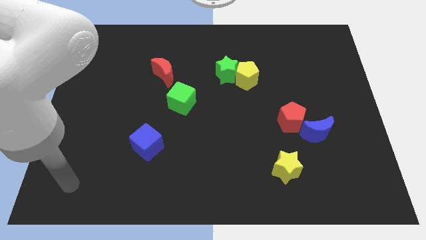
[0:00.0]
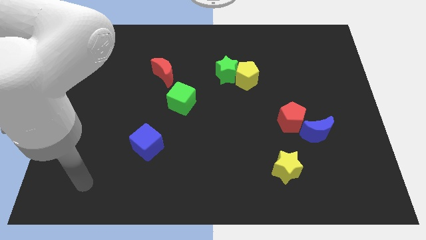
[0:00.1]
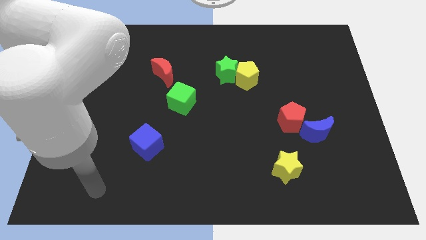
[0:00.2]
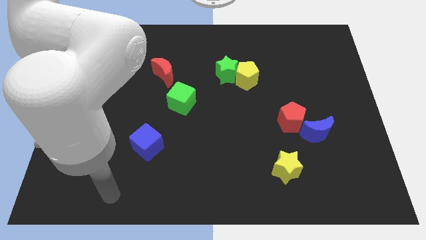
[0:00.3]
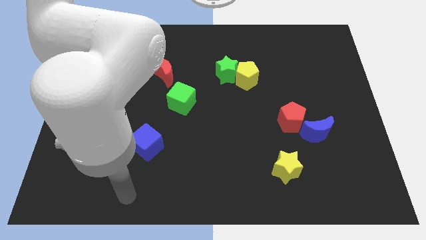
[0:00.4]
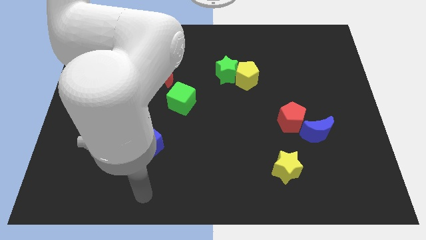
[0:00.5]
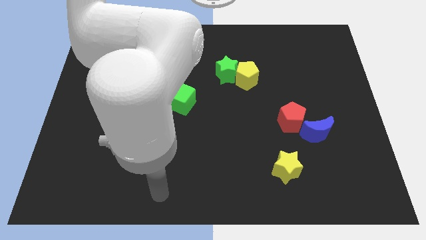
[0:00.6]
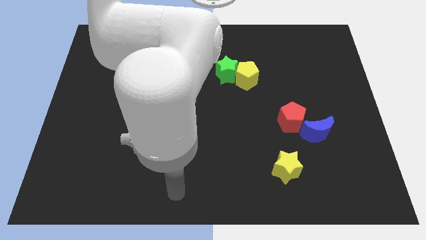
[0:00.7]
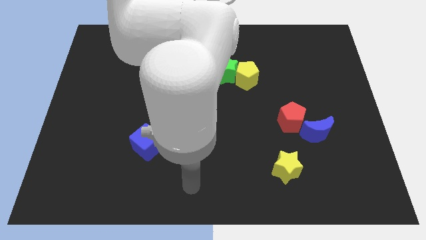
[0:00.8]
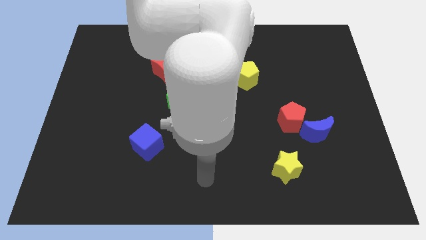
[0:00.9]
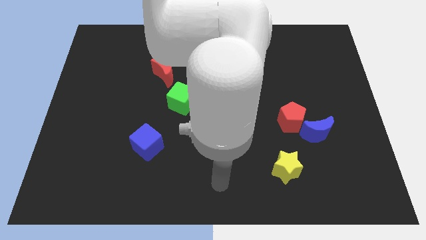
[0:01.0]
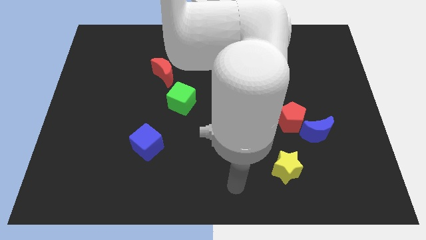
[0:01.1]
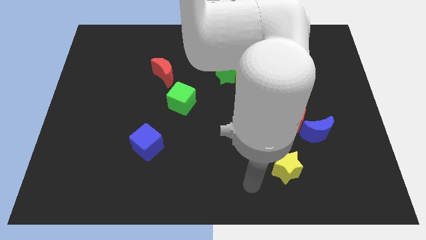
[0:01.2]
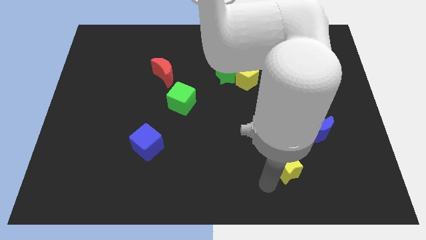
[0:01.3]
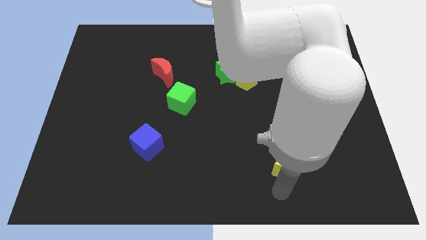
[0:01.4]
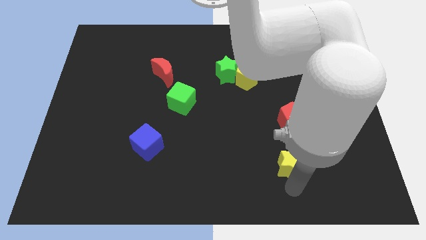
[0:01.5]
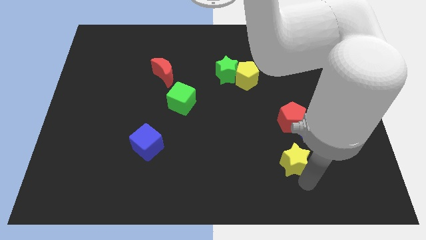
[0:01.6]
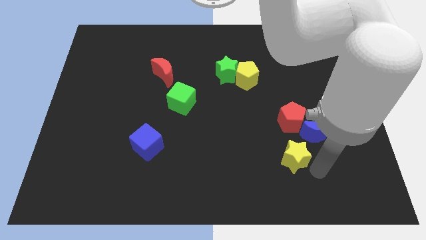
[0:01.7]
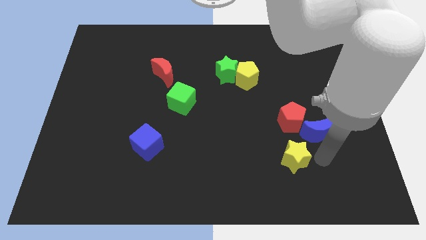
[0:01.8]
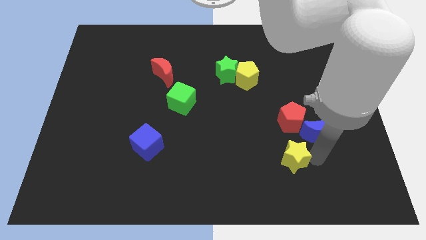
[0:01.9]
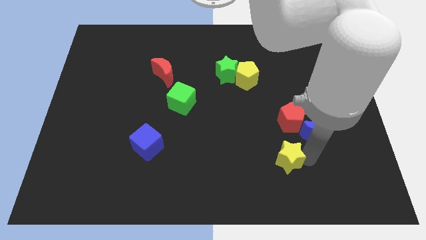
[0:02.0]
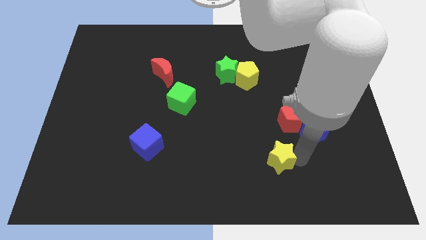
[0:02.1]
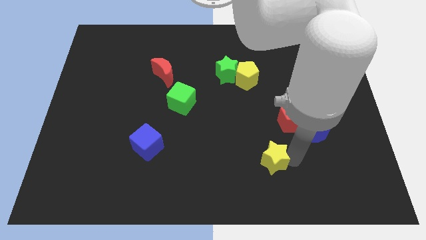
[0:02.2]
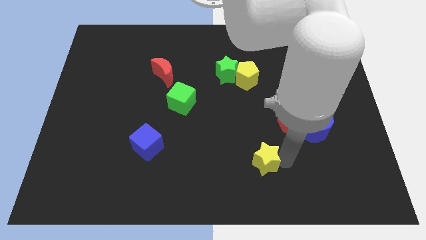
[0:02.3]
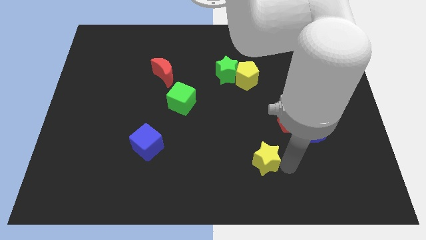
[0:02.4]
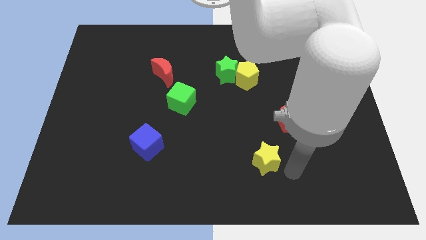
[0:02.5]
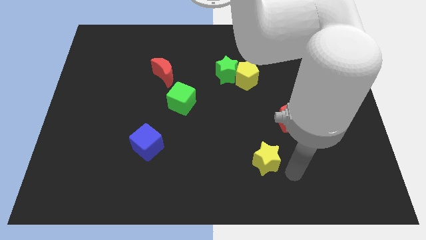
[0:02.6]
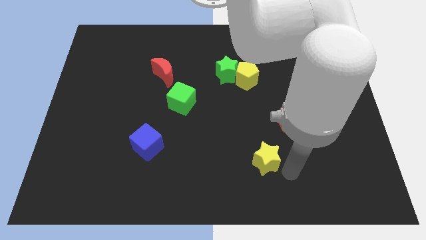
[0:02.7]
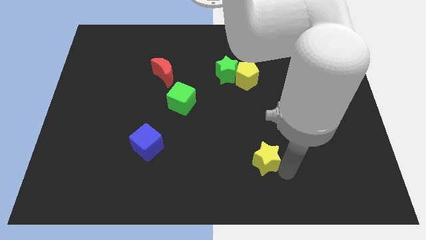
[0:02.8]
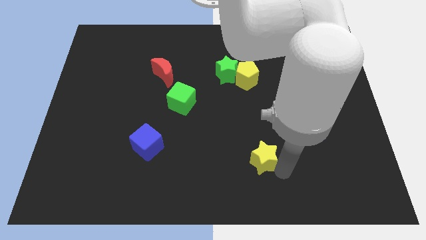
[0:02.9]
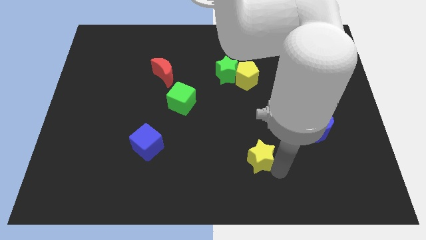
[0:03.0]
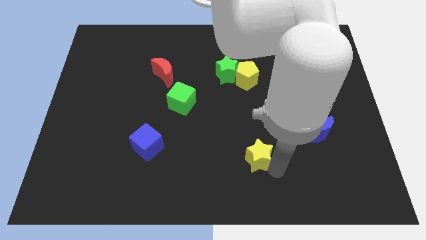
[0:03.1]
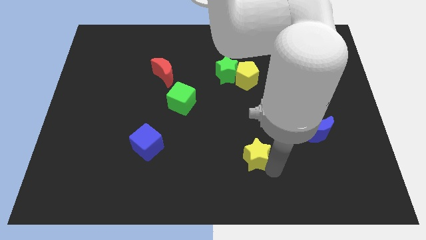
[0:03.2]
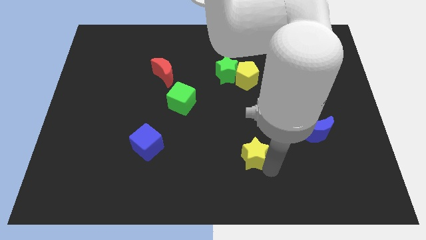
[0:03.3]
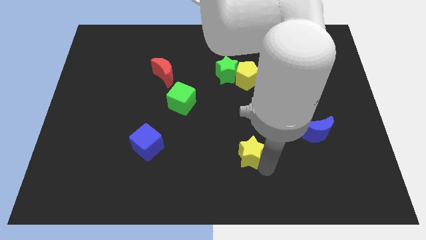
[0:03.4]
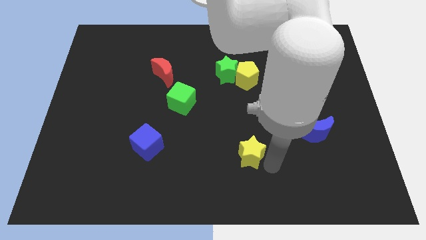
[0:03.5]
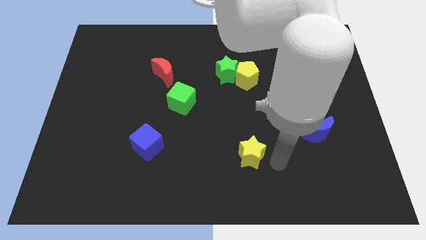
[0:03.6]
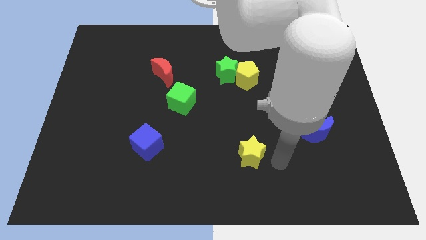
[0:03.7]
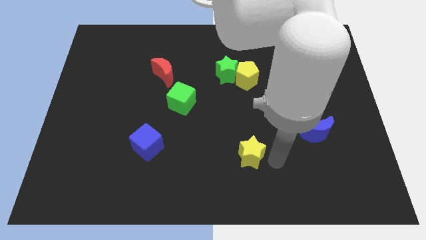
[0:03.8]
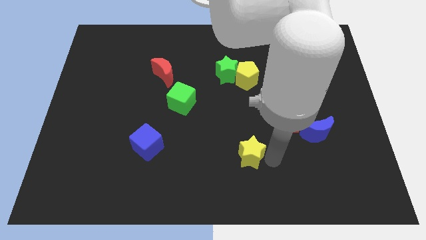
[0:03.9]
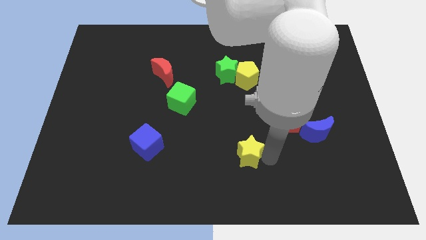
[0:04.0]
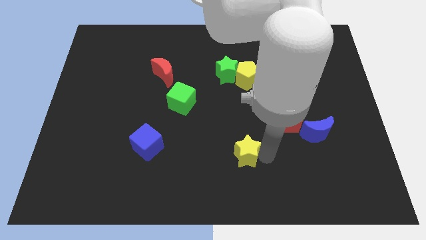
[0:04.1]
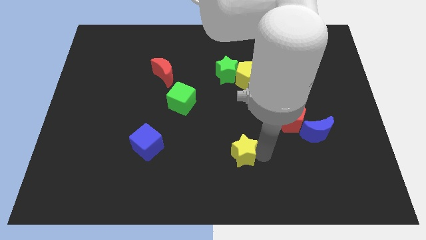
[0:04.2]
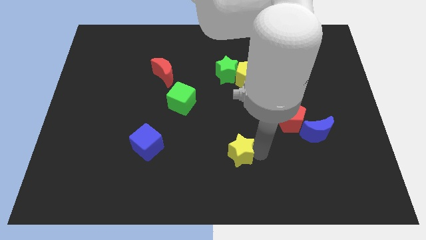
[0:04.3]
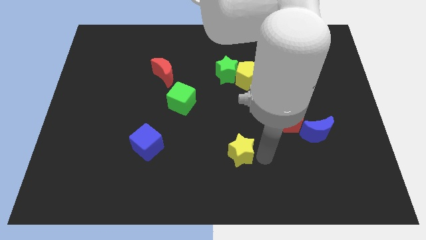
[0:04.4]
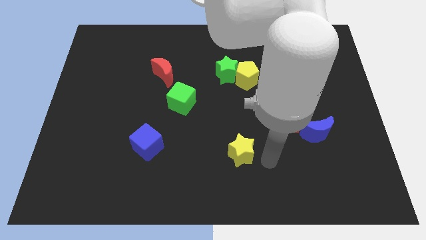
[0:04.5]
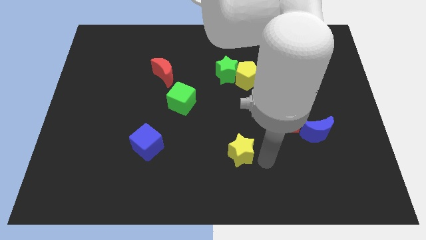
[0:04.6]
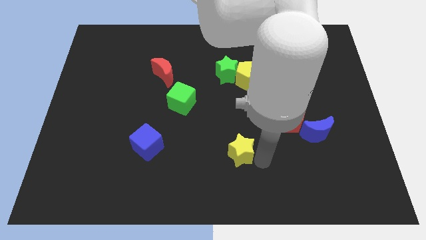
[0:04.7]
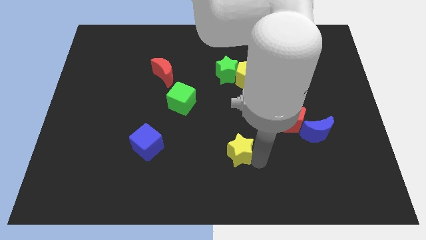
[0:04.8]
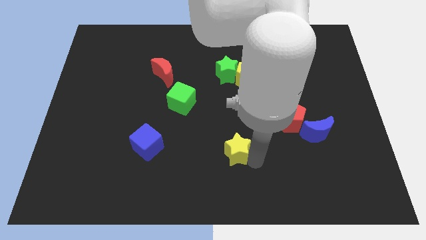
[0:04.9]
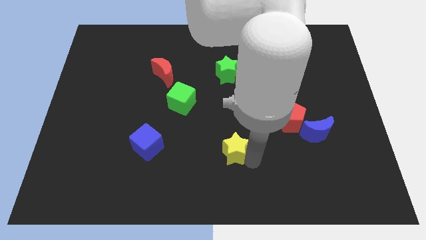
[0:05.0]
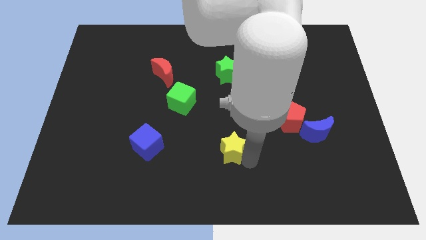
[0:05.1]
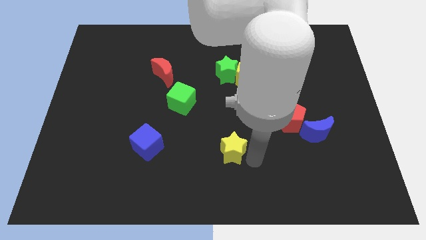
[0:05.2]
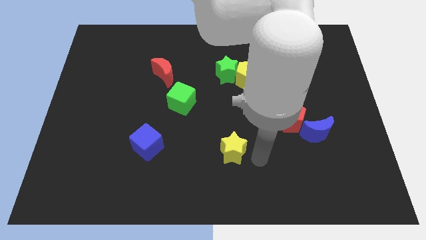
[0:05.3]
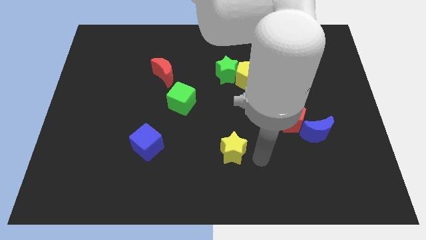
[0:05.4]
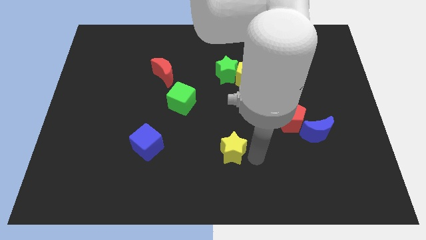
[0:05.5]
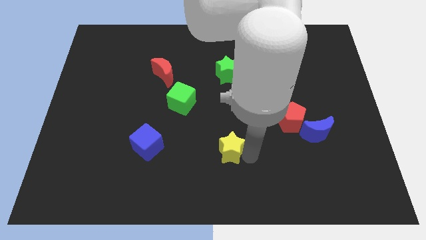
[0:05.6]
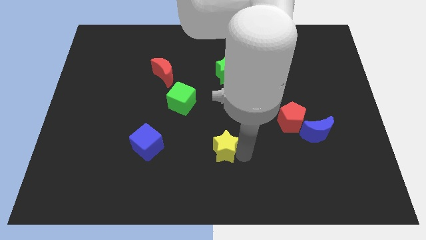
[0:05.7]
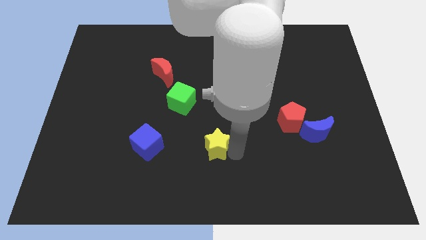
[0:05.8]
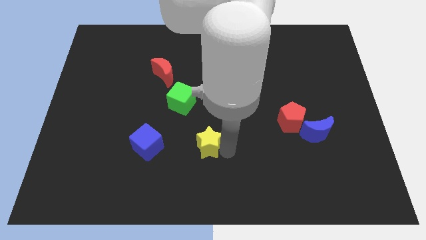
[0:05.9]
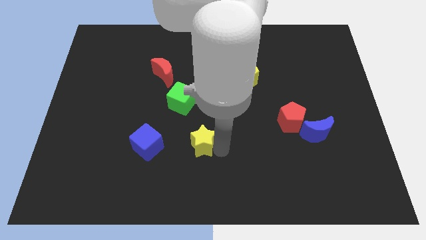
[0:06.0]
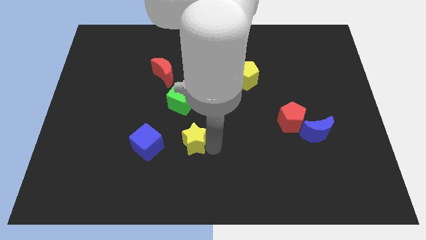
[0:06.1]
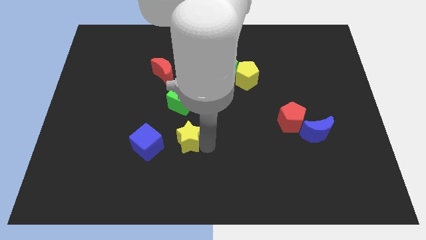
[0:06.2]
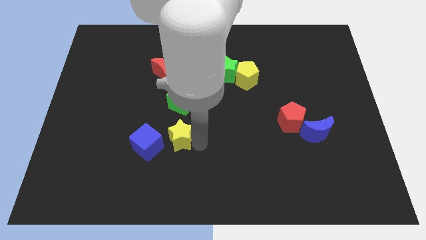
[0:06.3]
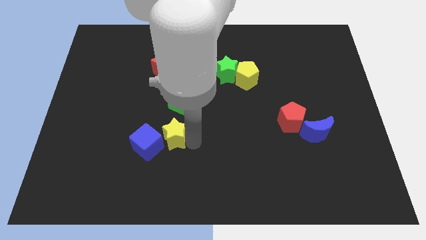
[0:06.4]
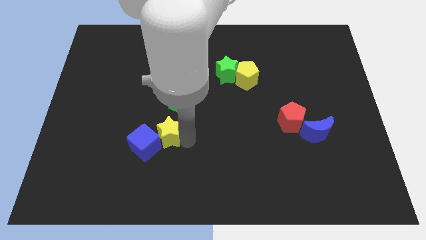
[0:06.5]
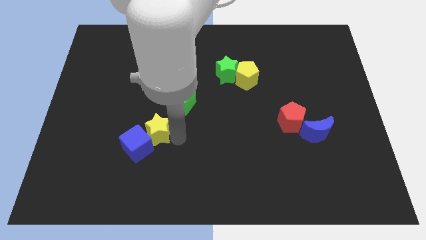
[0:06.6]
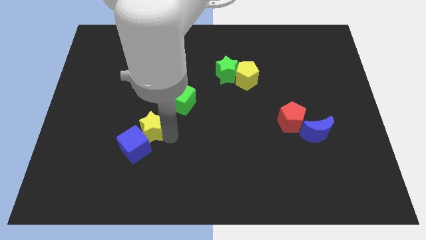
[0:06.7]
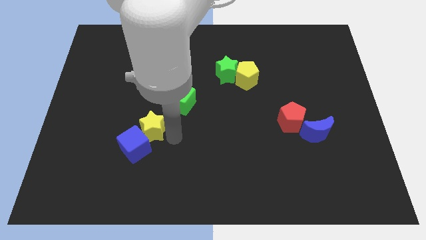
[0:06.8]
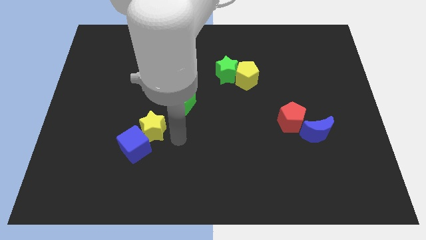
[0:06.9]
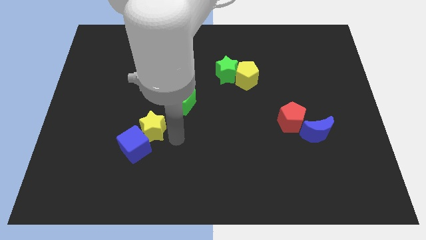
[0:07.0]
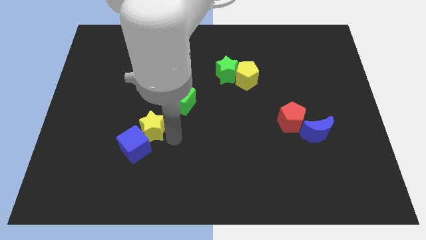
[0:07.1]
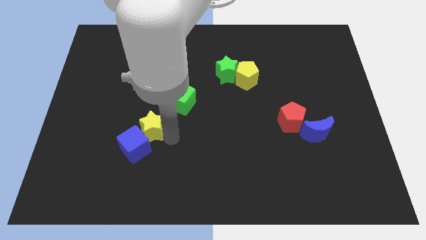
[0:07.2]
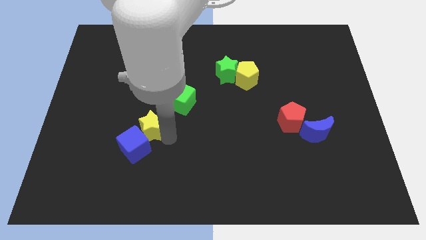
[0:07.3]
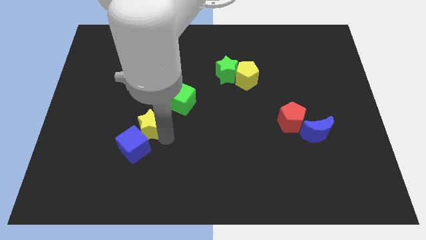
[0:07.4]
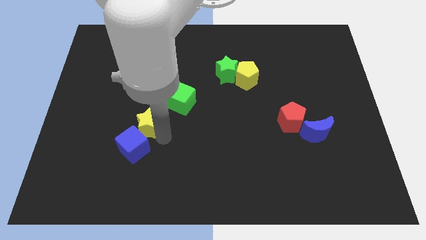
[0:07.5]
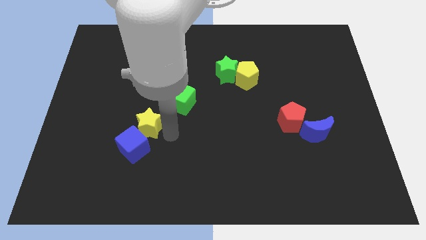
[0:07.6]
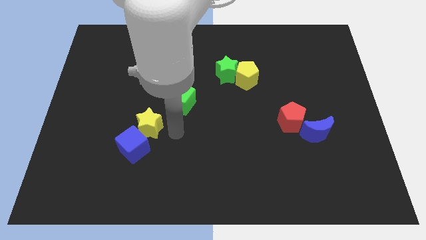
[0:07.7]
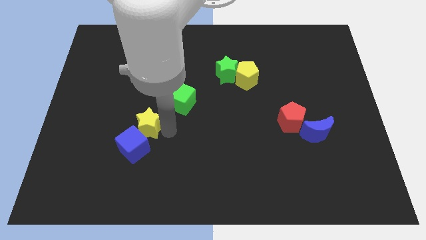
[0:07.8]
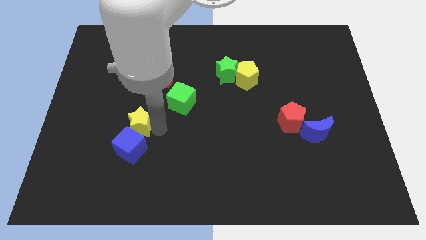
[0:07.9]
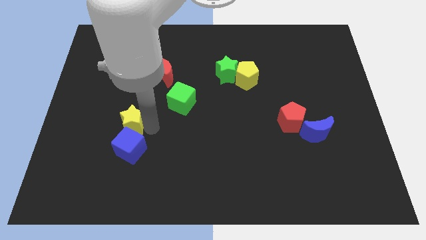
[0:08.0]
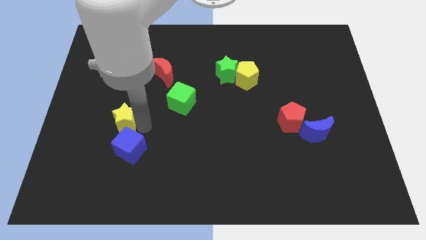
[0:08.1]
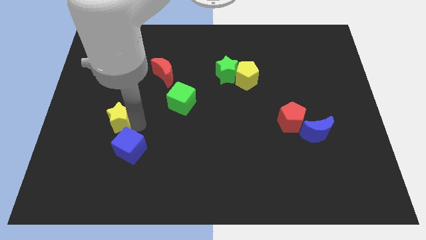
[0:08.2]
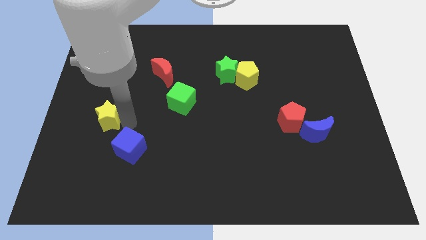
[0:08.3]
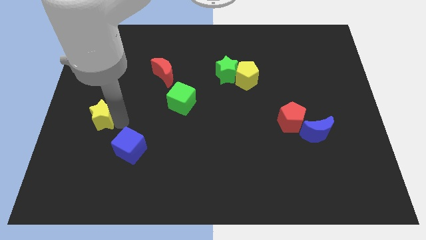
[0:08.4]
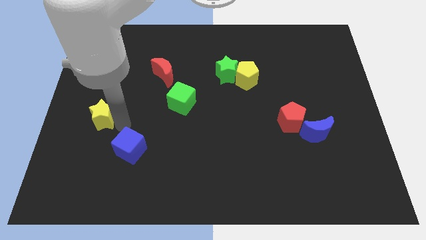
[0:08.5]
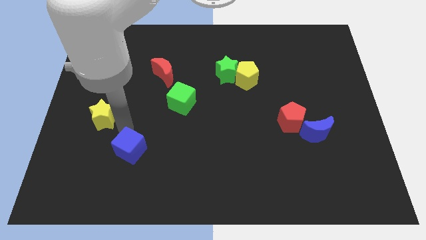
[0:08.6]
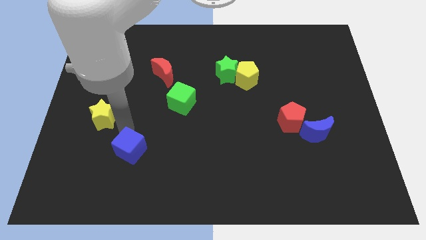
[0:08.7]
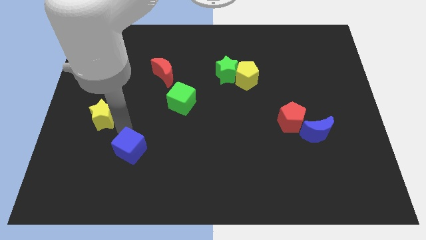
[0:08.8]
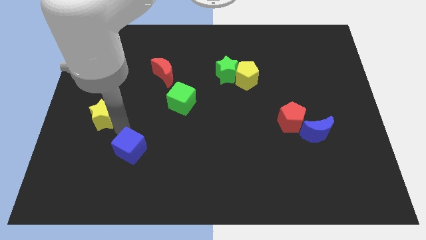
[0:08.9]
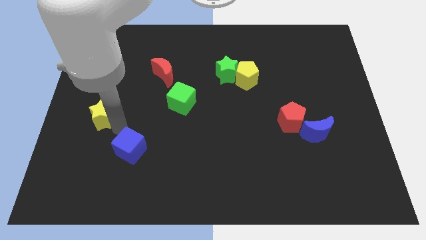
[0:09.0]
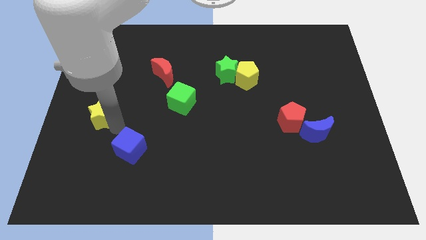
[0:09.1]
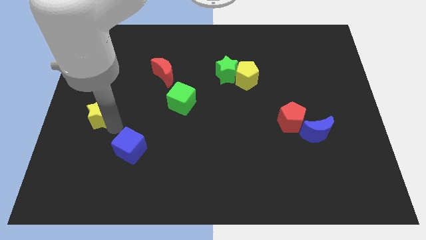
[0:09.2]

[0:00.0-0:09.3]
put the yellow star to the left side of the board
